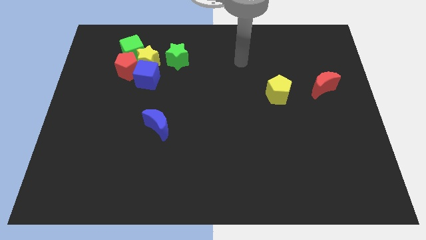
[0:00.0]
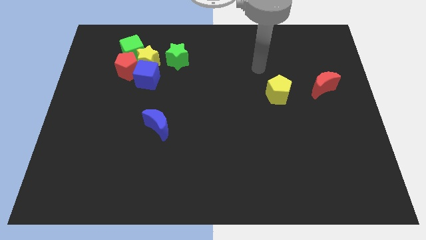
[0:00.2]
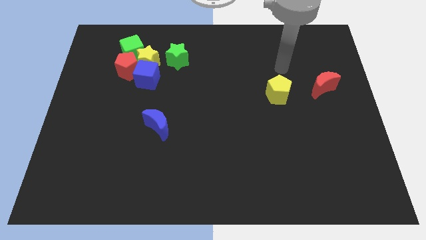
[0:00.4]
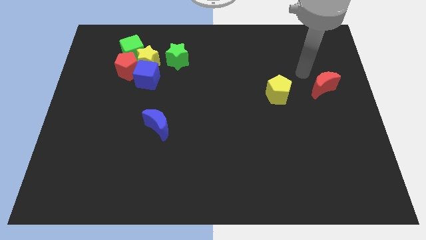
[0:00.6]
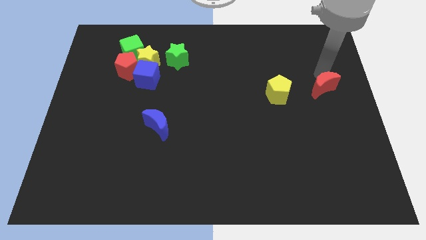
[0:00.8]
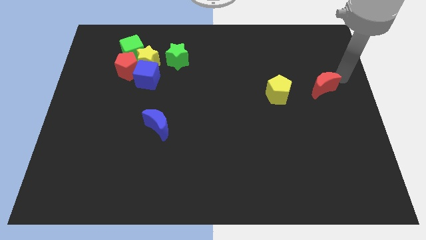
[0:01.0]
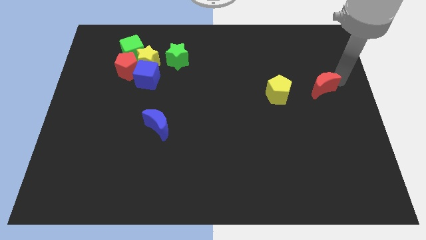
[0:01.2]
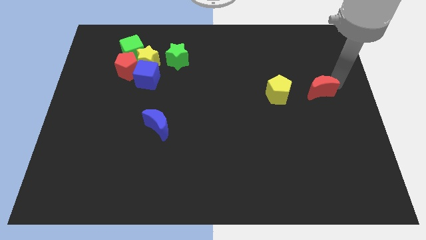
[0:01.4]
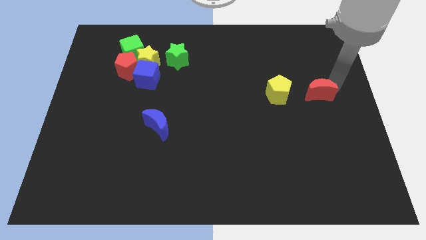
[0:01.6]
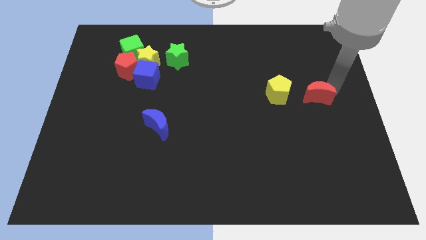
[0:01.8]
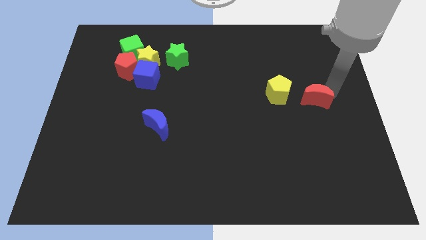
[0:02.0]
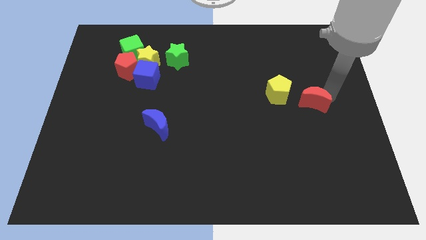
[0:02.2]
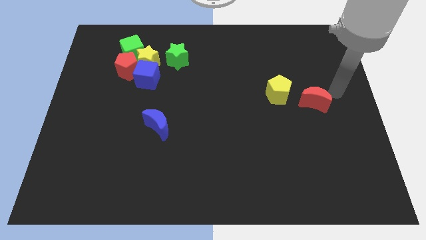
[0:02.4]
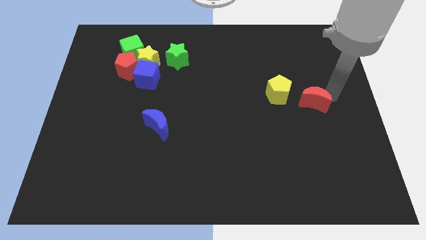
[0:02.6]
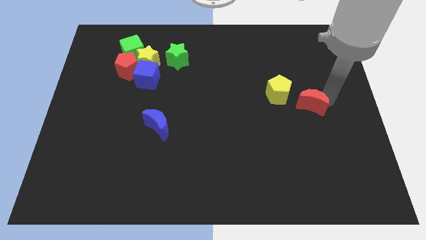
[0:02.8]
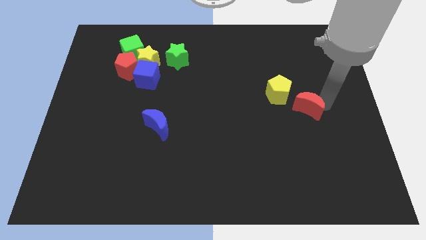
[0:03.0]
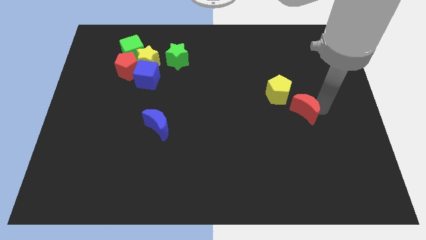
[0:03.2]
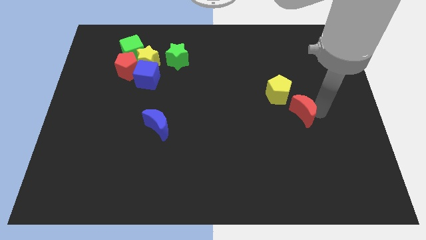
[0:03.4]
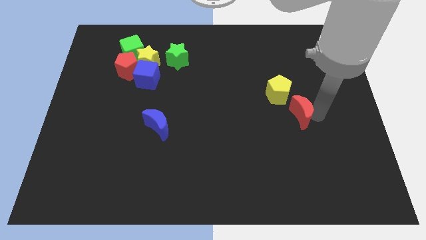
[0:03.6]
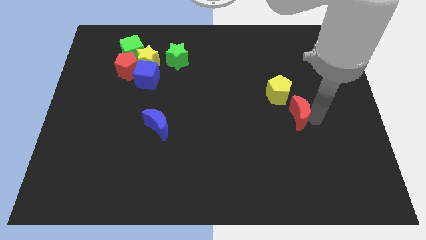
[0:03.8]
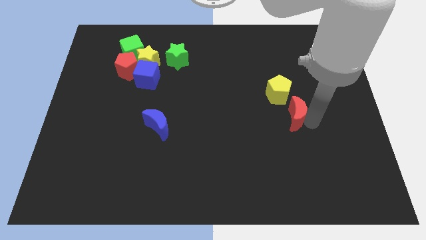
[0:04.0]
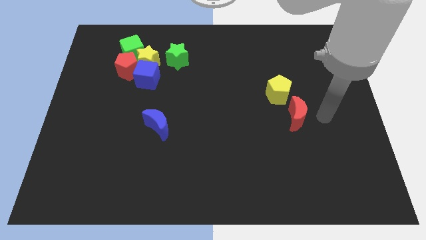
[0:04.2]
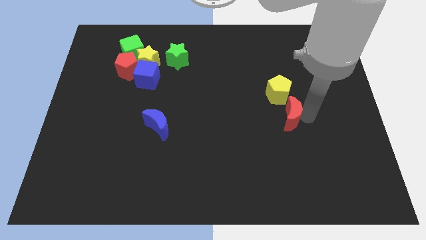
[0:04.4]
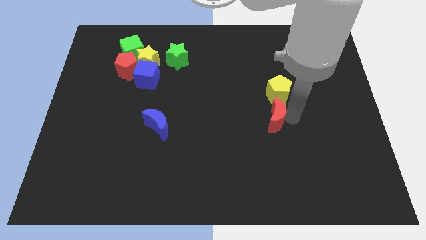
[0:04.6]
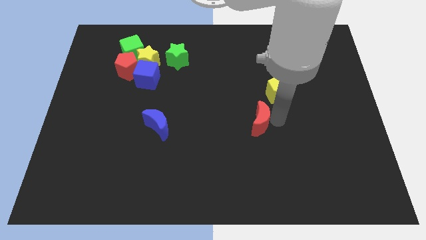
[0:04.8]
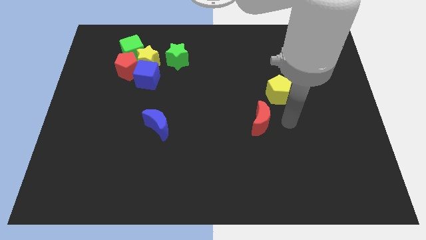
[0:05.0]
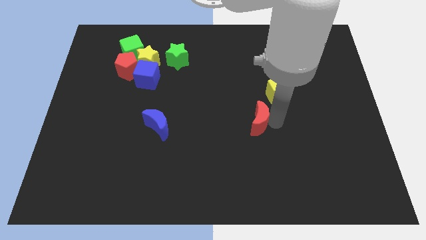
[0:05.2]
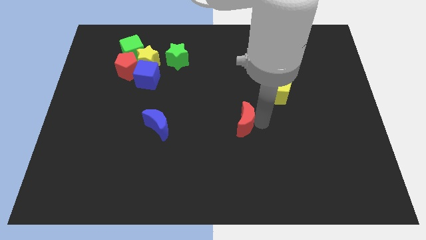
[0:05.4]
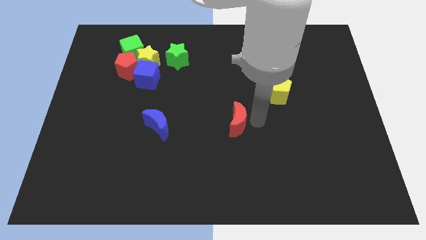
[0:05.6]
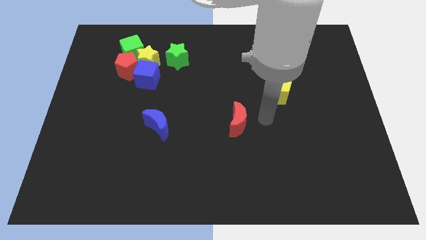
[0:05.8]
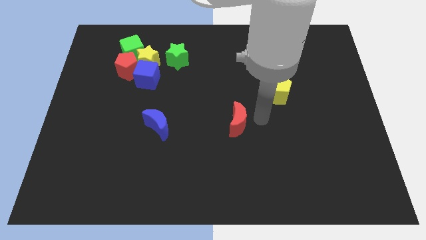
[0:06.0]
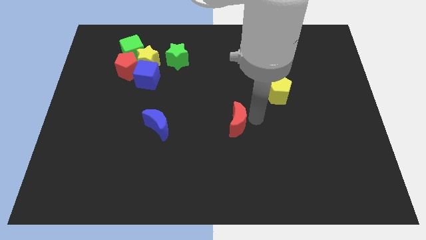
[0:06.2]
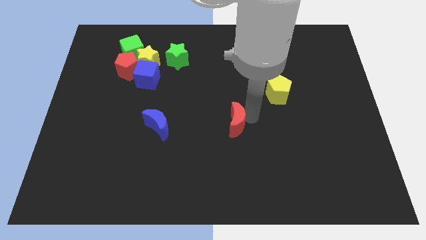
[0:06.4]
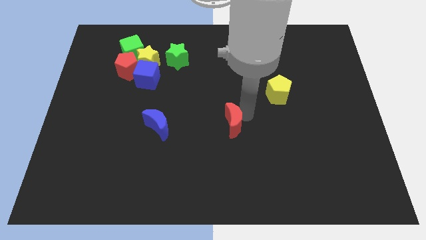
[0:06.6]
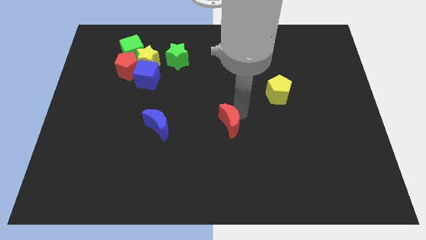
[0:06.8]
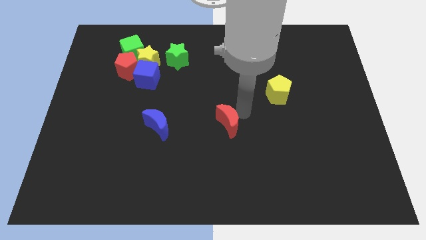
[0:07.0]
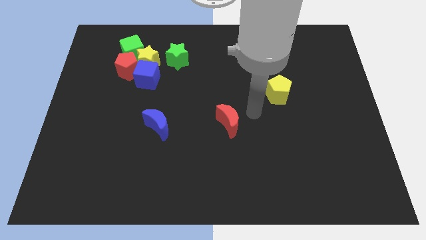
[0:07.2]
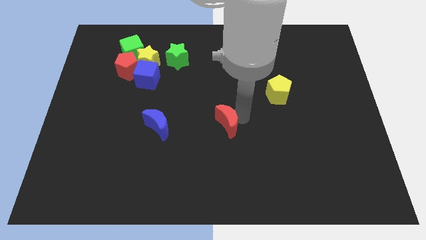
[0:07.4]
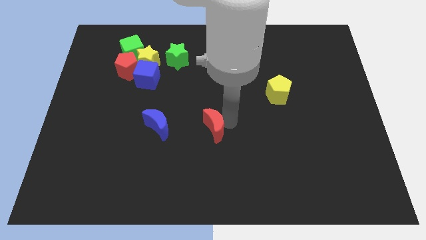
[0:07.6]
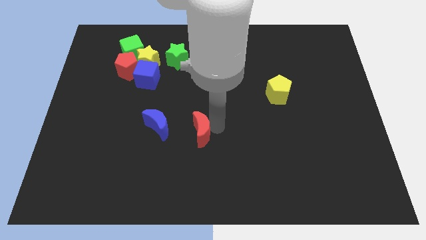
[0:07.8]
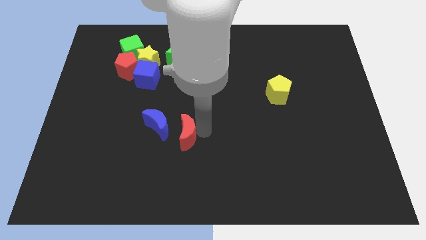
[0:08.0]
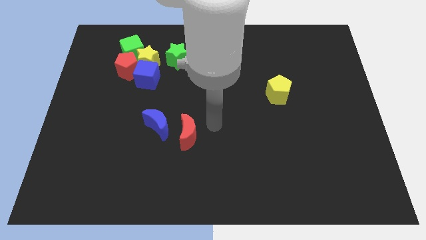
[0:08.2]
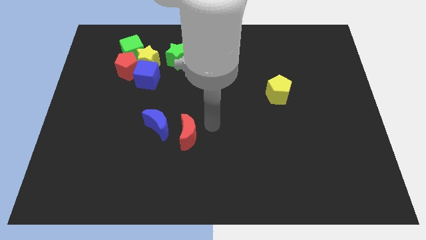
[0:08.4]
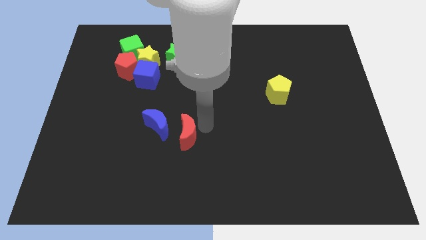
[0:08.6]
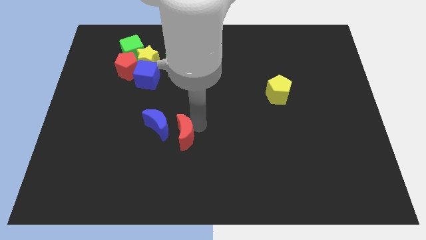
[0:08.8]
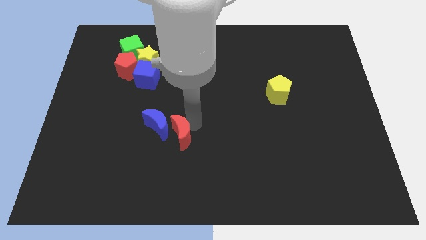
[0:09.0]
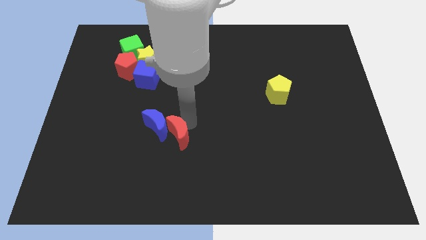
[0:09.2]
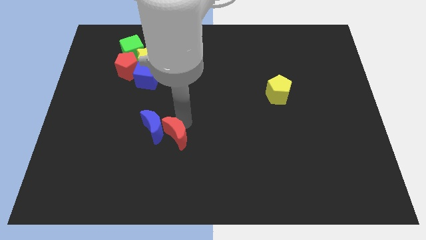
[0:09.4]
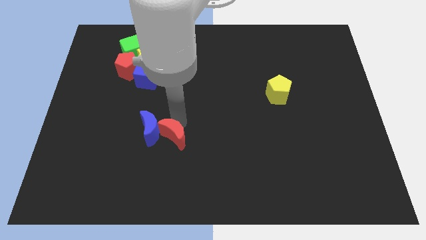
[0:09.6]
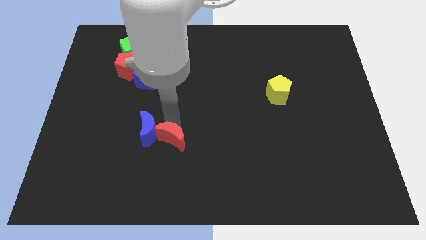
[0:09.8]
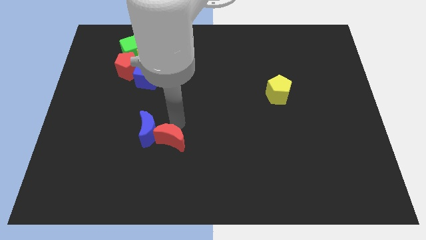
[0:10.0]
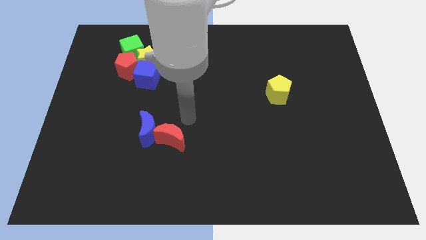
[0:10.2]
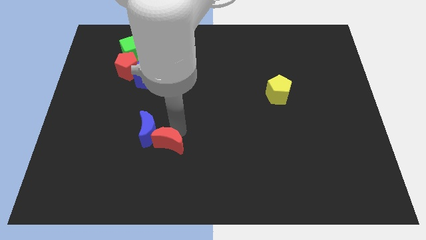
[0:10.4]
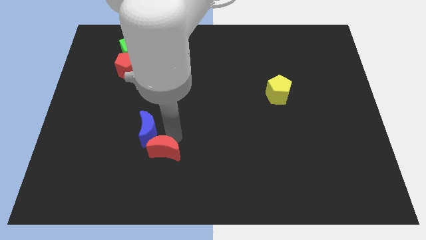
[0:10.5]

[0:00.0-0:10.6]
move the red moon below the blue moon

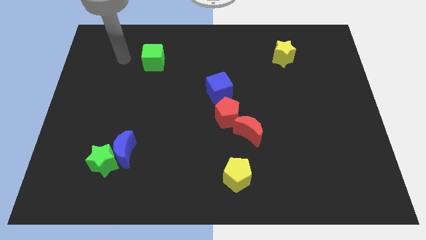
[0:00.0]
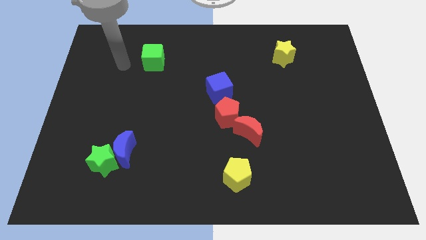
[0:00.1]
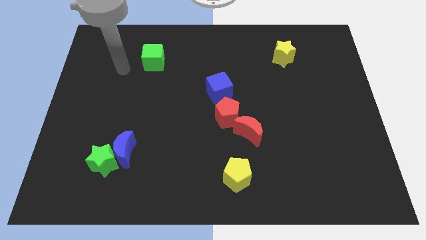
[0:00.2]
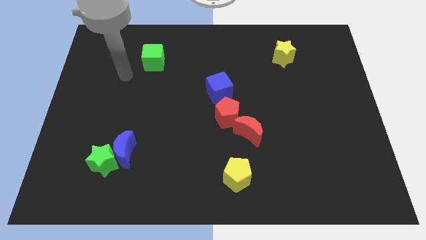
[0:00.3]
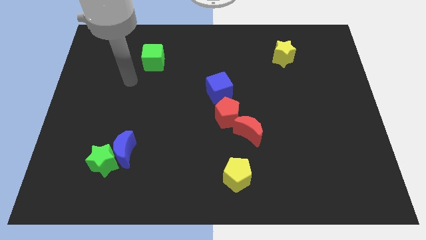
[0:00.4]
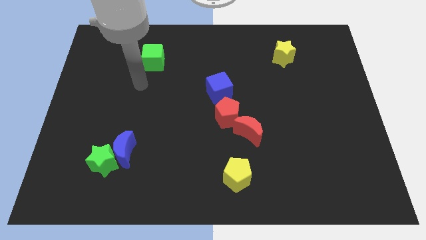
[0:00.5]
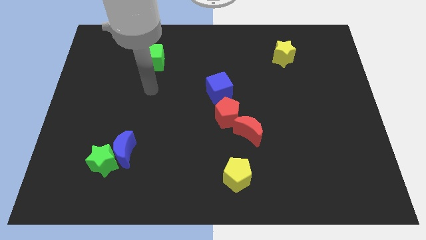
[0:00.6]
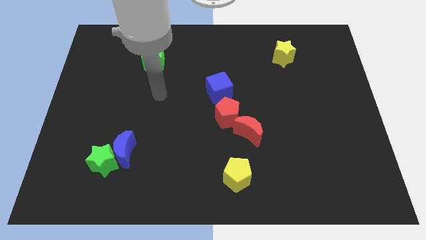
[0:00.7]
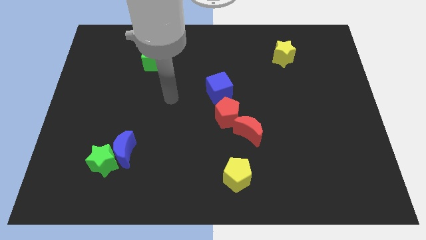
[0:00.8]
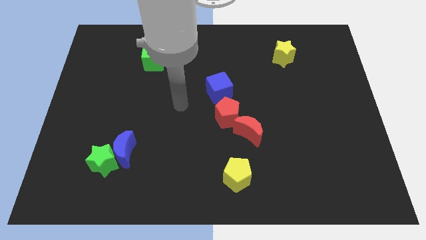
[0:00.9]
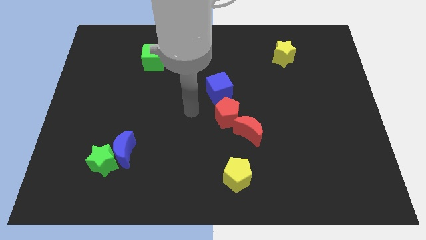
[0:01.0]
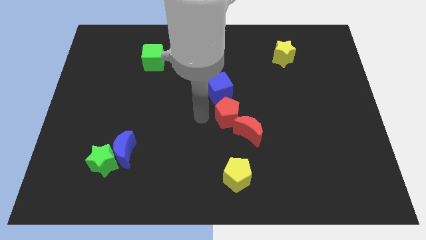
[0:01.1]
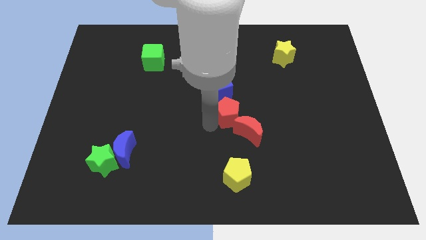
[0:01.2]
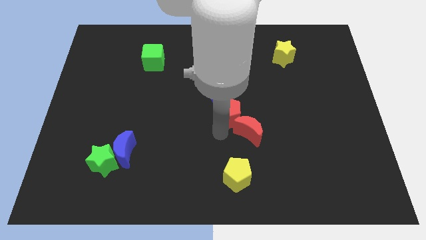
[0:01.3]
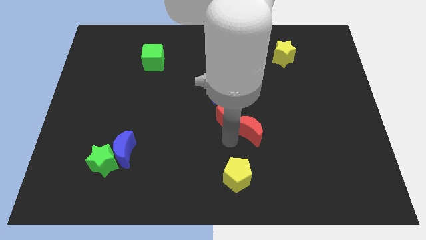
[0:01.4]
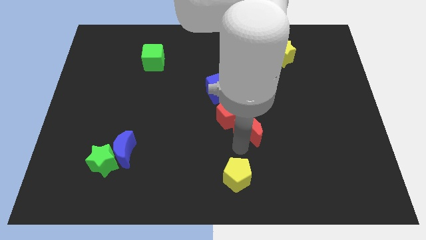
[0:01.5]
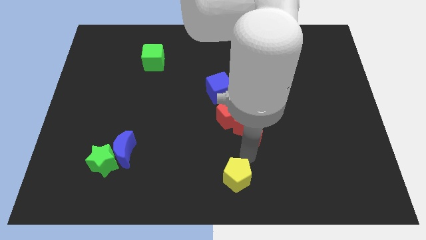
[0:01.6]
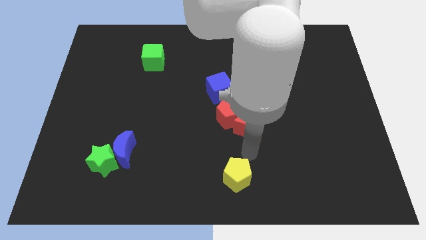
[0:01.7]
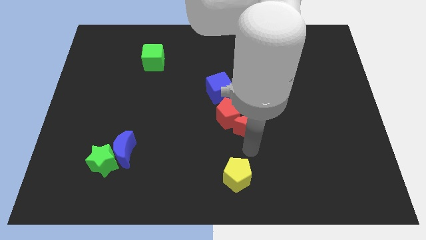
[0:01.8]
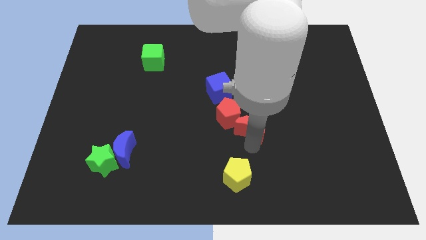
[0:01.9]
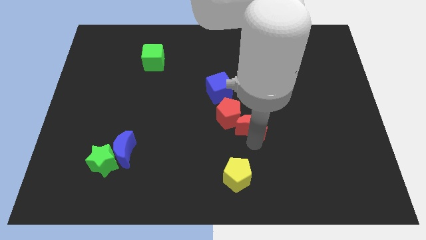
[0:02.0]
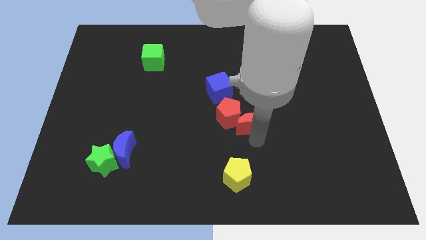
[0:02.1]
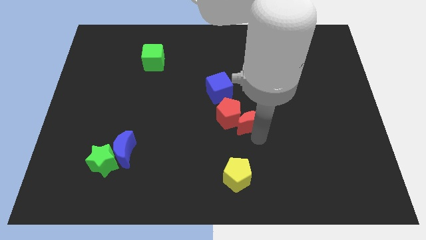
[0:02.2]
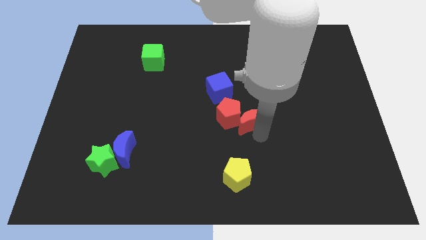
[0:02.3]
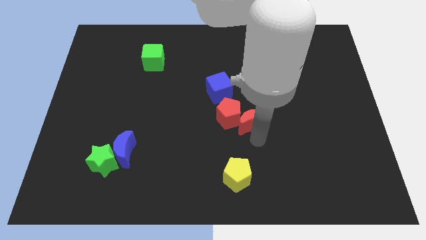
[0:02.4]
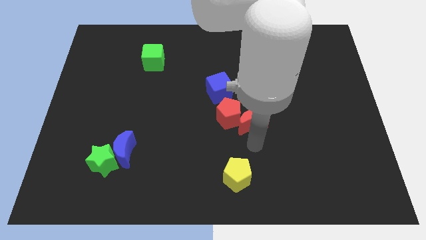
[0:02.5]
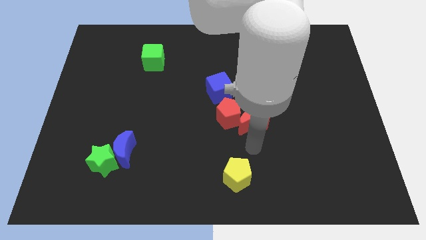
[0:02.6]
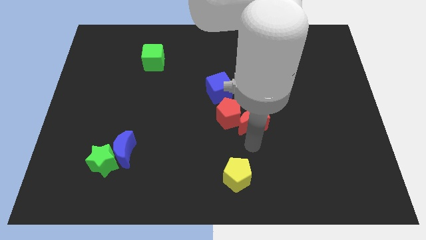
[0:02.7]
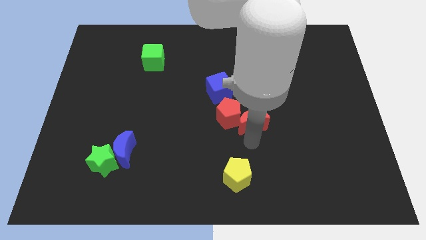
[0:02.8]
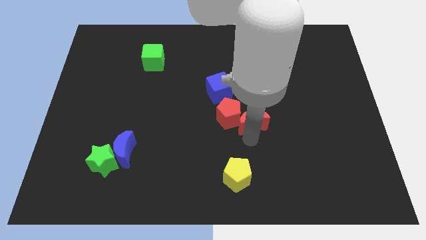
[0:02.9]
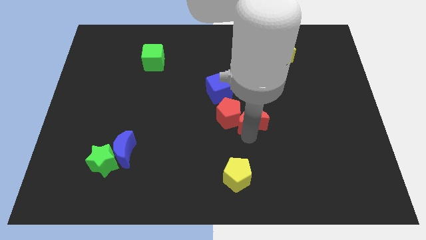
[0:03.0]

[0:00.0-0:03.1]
slide the red moon to the top right of the red pentagon
